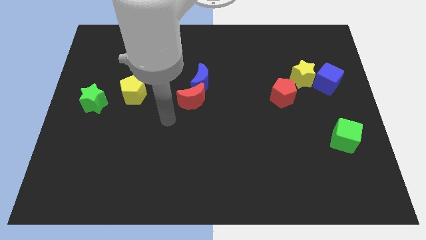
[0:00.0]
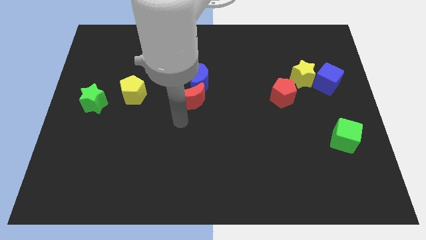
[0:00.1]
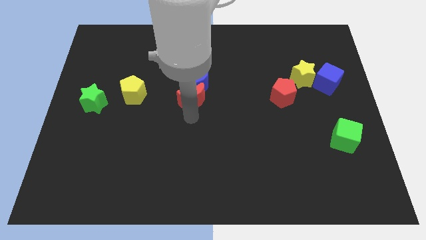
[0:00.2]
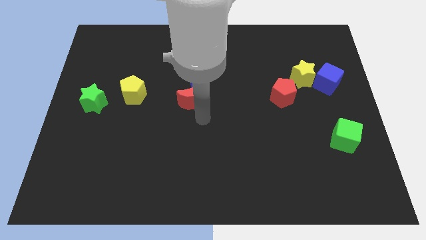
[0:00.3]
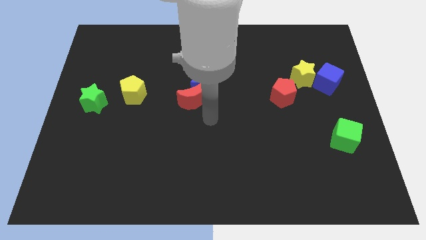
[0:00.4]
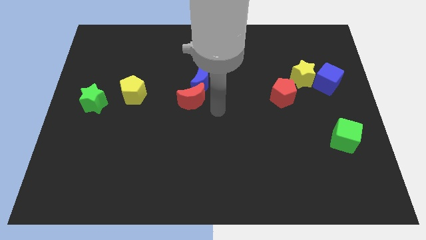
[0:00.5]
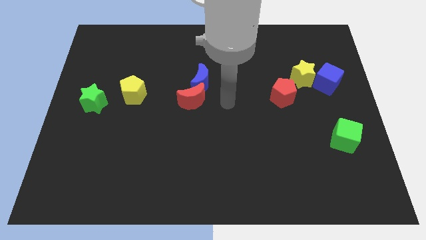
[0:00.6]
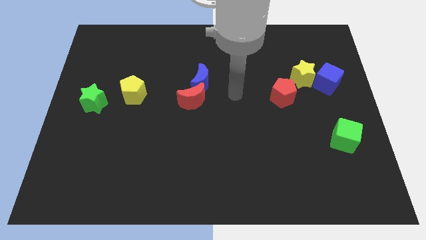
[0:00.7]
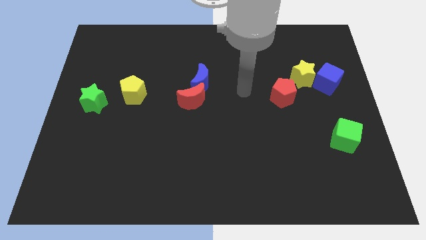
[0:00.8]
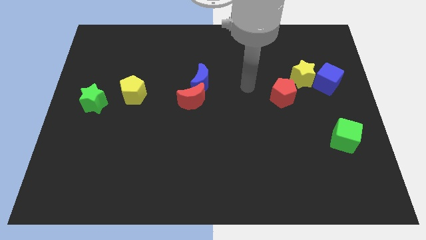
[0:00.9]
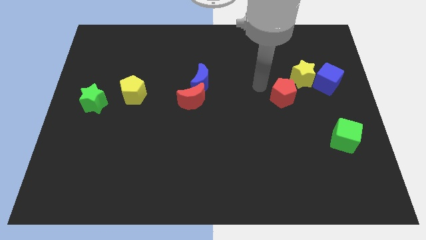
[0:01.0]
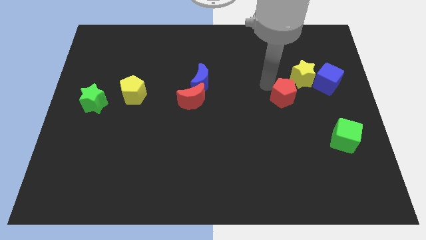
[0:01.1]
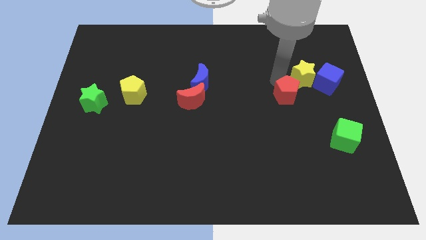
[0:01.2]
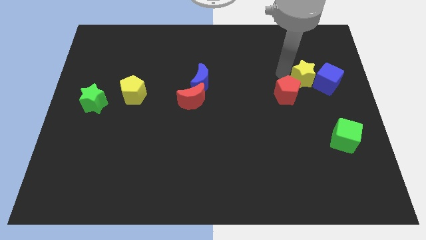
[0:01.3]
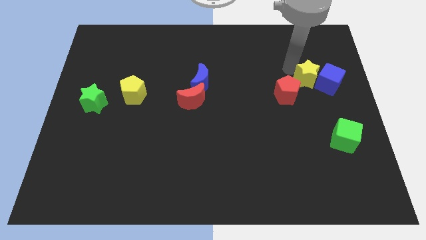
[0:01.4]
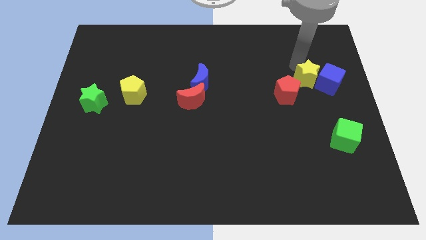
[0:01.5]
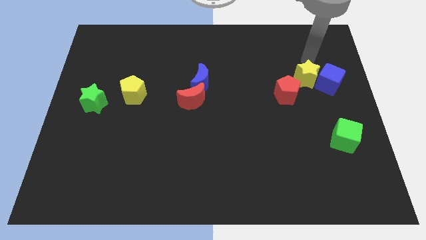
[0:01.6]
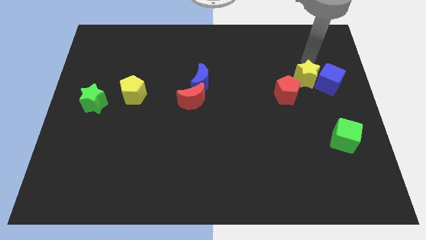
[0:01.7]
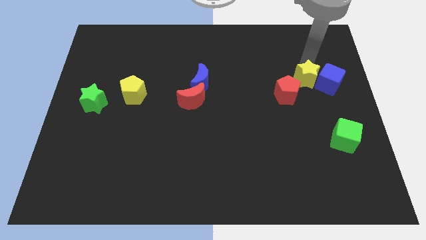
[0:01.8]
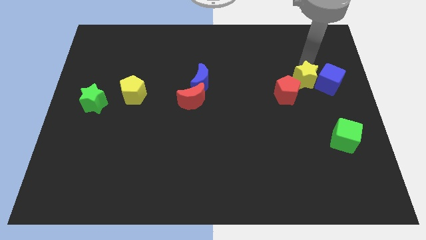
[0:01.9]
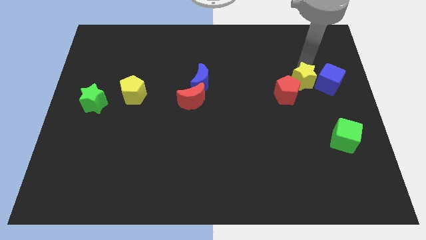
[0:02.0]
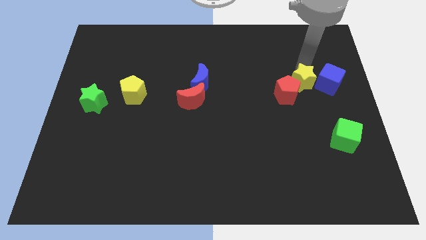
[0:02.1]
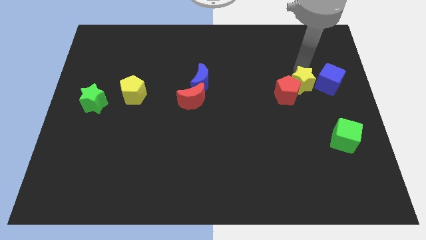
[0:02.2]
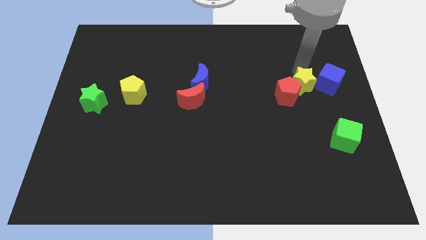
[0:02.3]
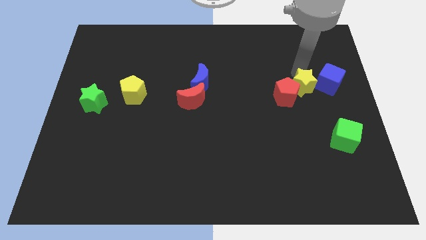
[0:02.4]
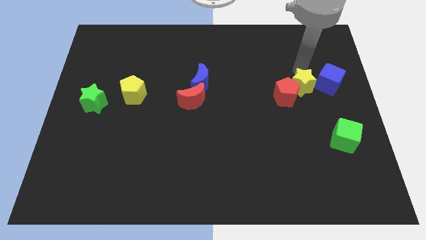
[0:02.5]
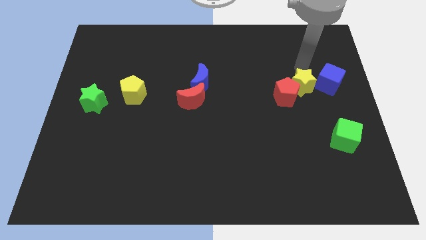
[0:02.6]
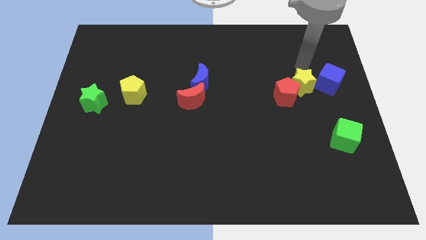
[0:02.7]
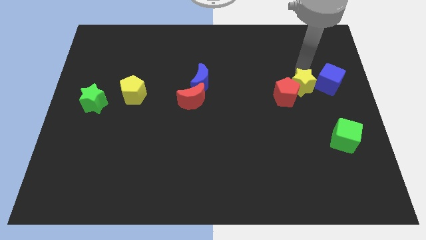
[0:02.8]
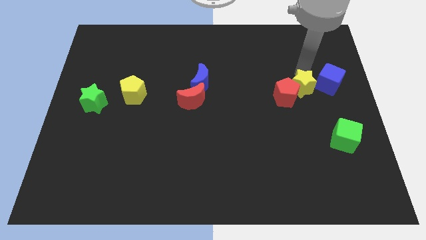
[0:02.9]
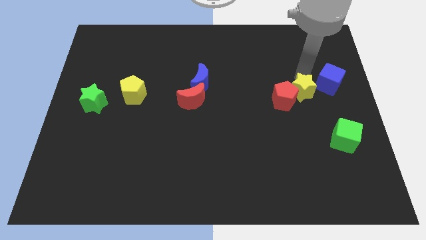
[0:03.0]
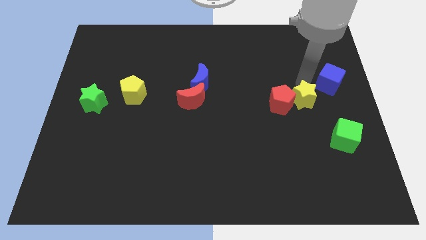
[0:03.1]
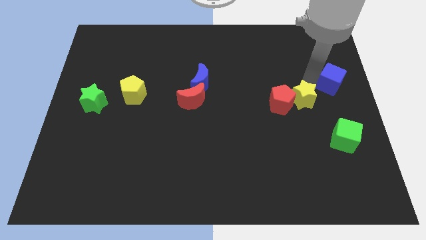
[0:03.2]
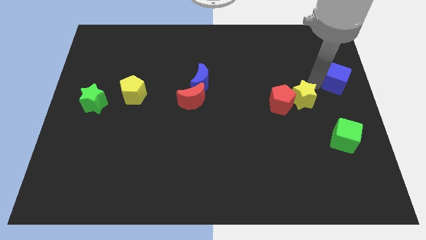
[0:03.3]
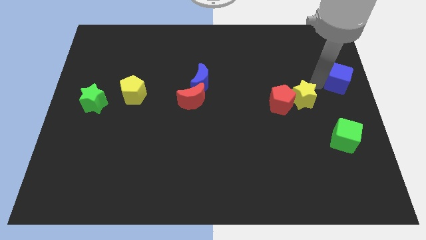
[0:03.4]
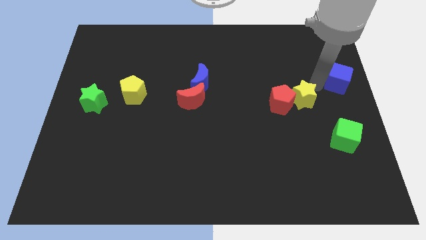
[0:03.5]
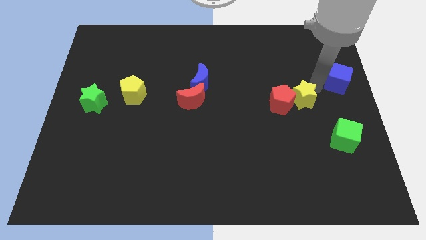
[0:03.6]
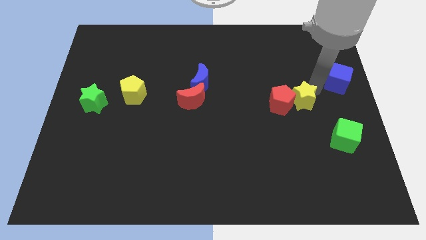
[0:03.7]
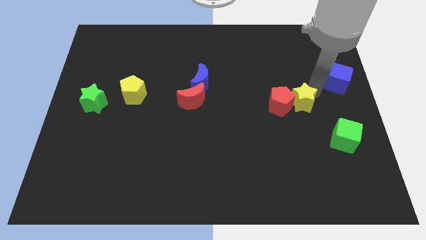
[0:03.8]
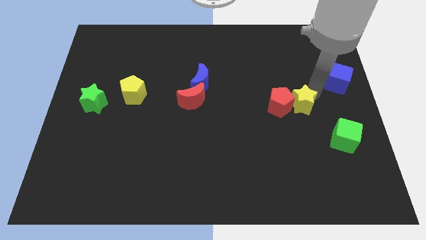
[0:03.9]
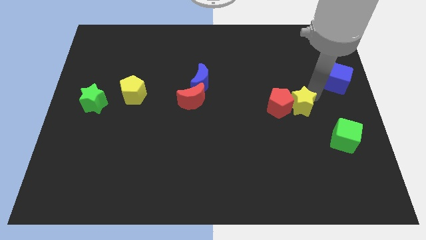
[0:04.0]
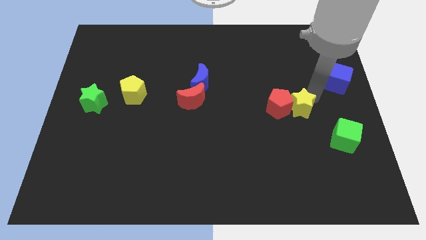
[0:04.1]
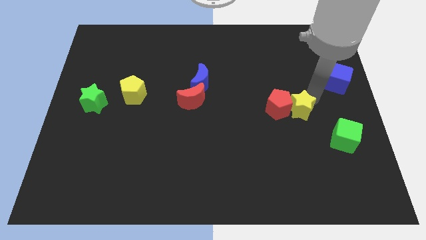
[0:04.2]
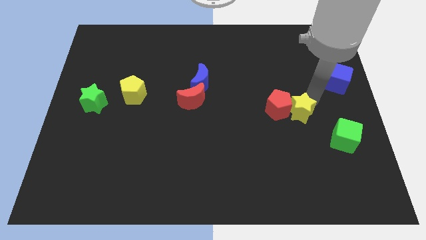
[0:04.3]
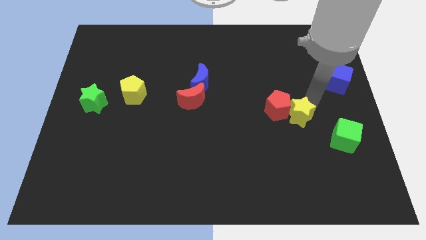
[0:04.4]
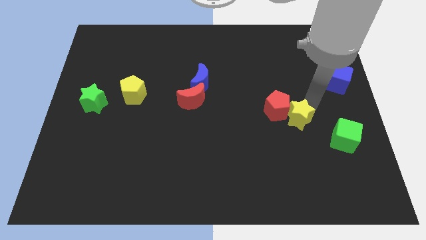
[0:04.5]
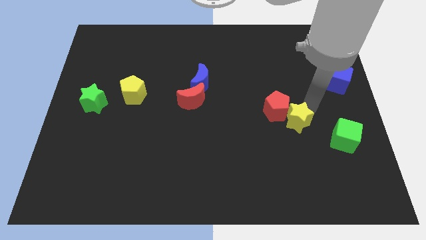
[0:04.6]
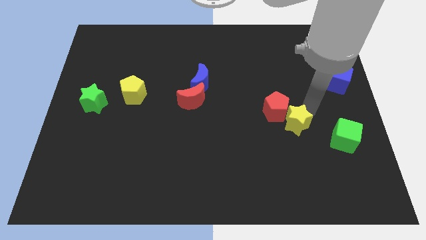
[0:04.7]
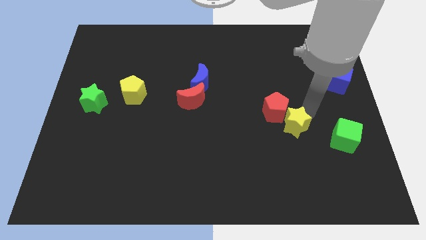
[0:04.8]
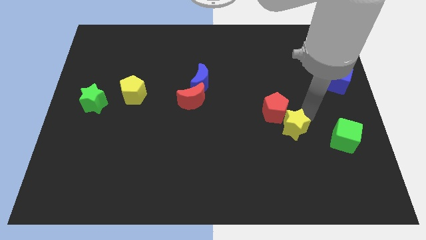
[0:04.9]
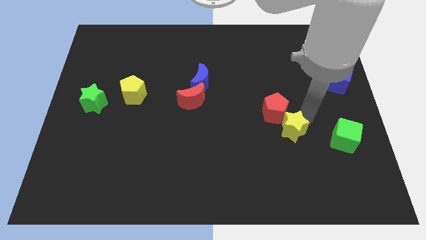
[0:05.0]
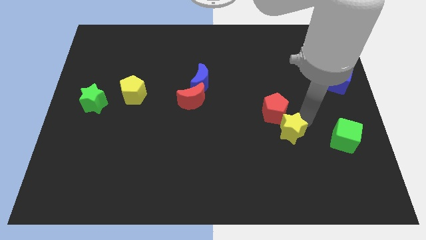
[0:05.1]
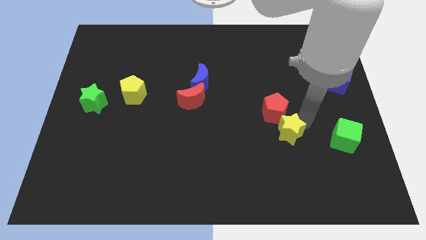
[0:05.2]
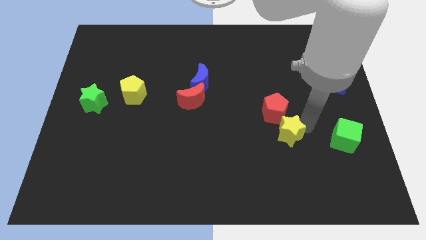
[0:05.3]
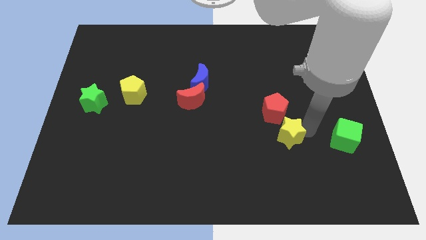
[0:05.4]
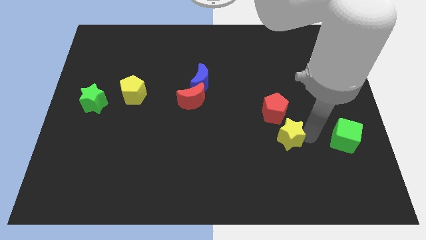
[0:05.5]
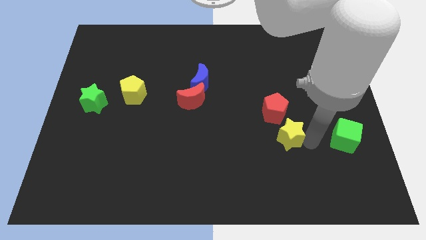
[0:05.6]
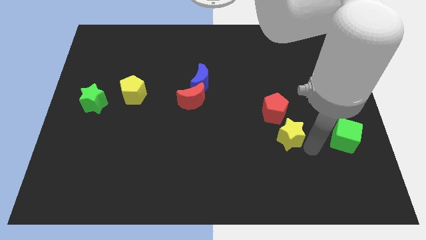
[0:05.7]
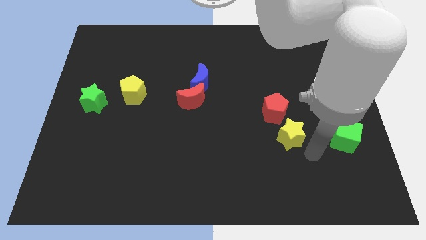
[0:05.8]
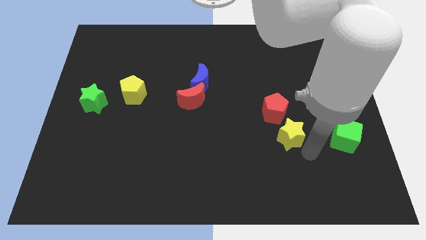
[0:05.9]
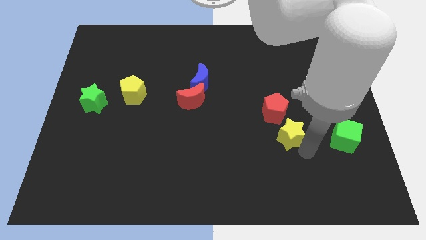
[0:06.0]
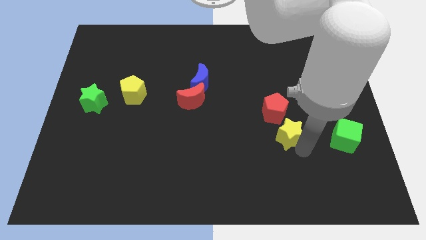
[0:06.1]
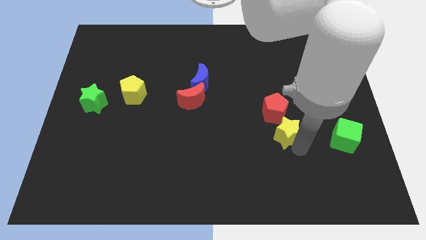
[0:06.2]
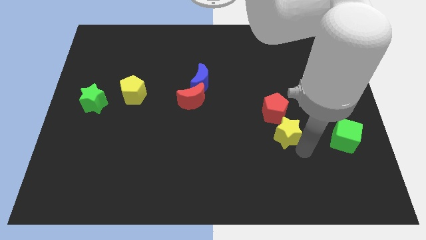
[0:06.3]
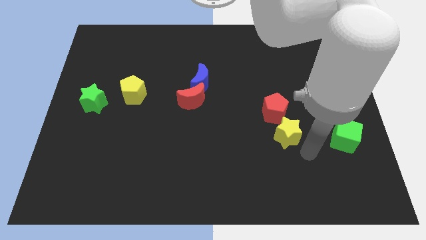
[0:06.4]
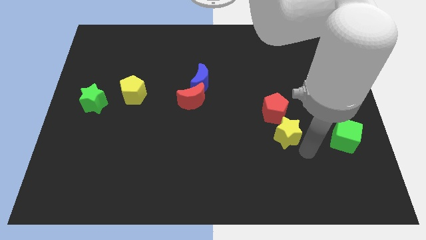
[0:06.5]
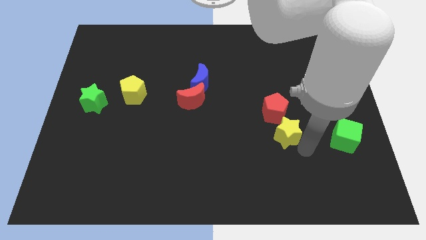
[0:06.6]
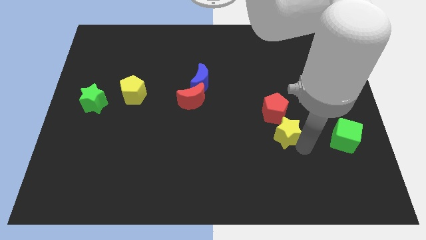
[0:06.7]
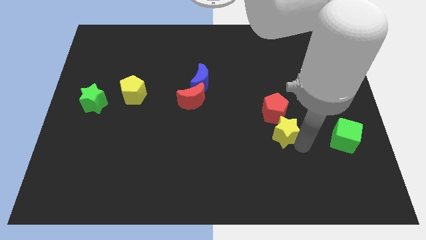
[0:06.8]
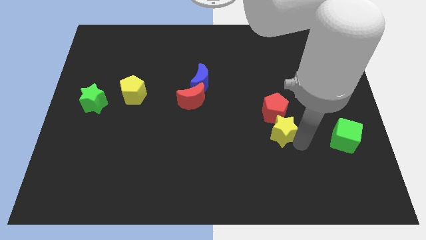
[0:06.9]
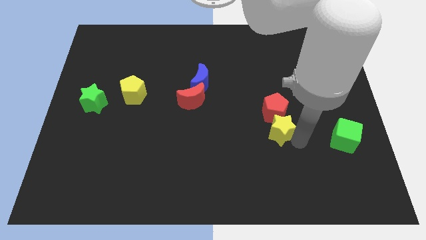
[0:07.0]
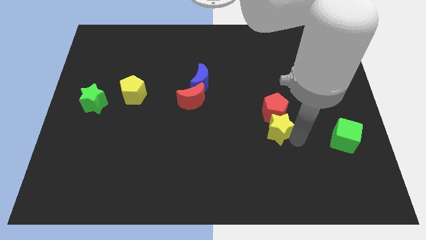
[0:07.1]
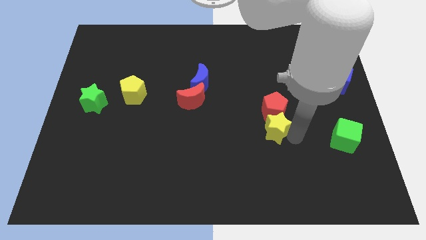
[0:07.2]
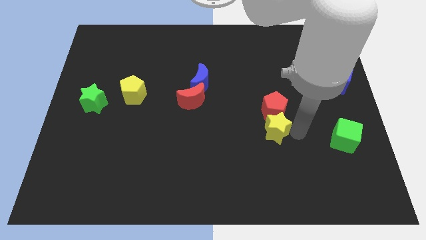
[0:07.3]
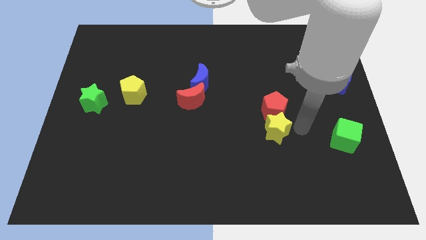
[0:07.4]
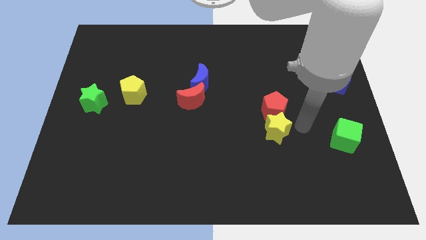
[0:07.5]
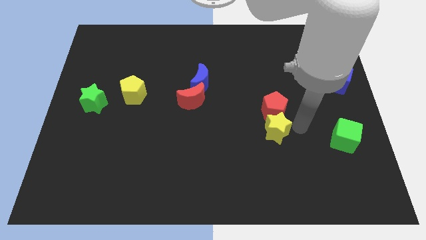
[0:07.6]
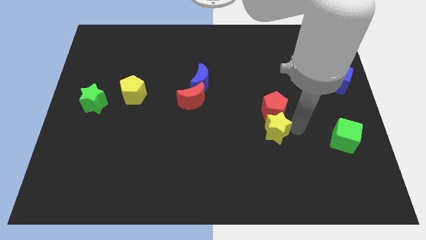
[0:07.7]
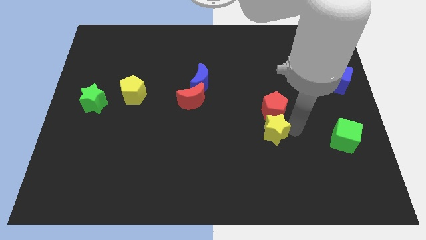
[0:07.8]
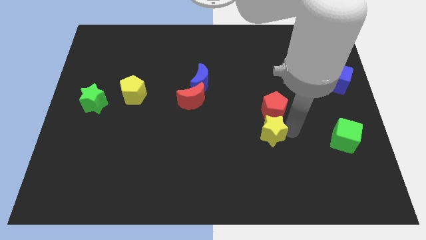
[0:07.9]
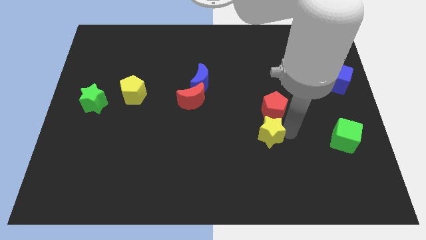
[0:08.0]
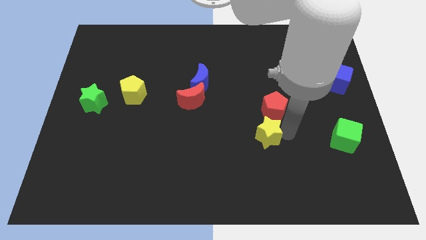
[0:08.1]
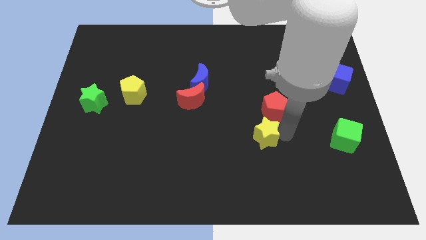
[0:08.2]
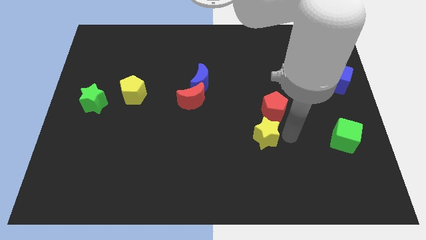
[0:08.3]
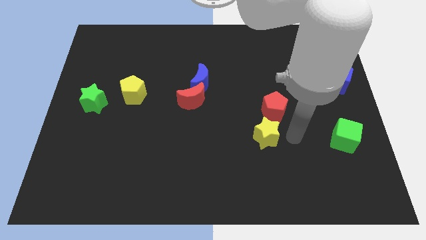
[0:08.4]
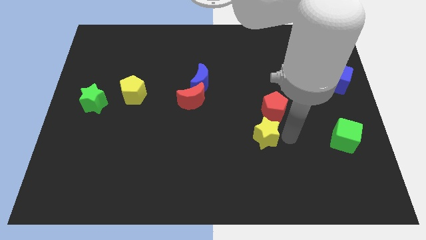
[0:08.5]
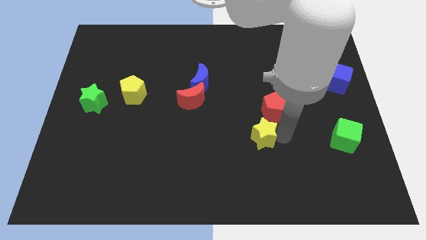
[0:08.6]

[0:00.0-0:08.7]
move the yellow star down and left
